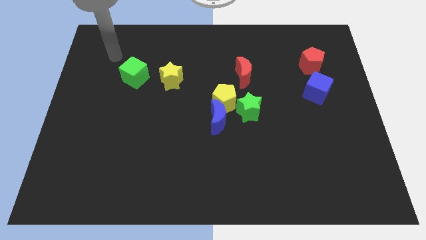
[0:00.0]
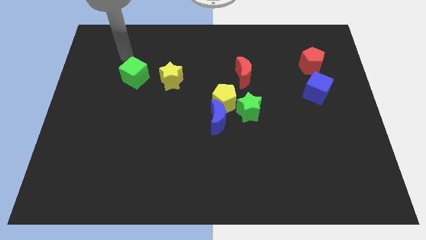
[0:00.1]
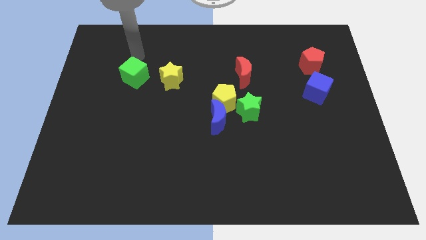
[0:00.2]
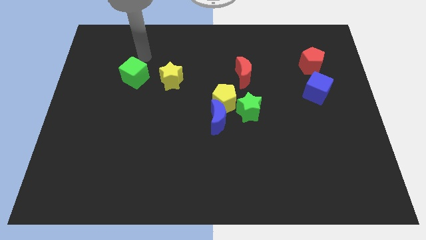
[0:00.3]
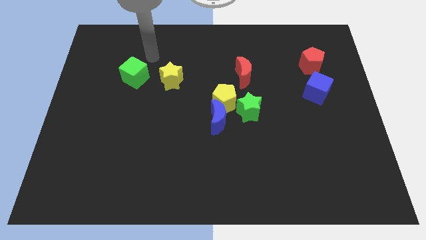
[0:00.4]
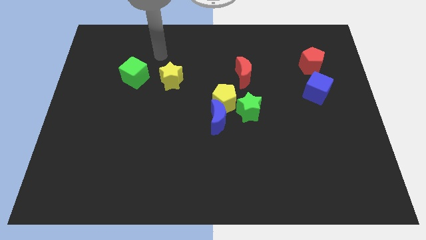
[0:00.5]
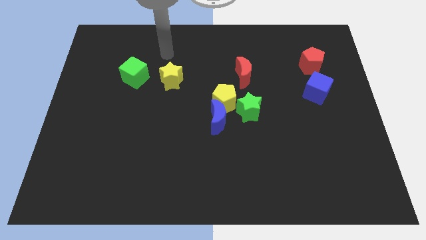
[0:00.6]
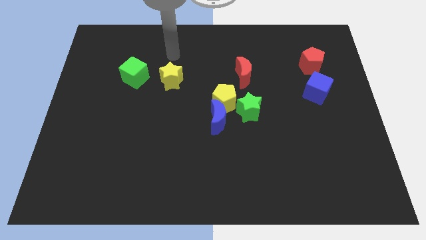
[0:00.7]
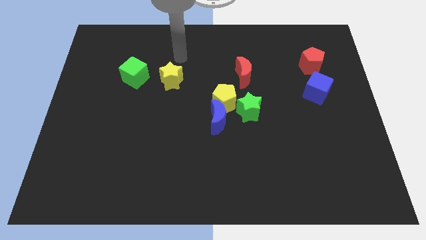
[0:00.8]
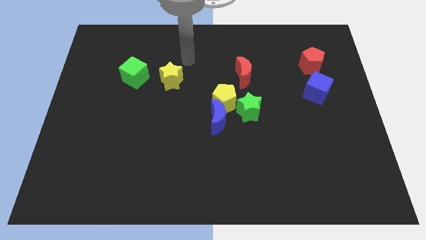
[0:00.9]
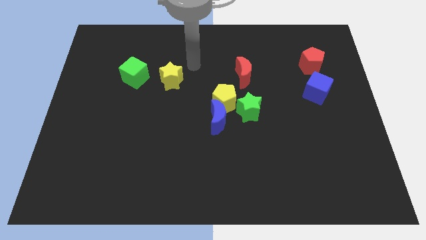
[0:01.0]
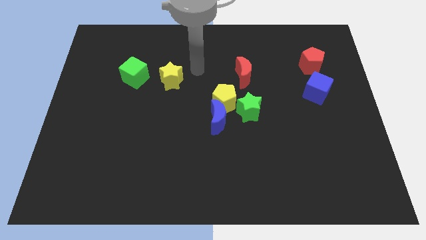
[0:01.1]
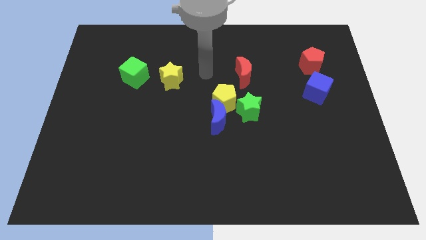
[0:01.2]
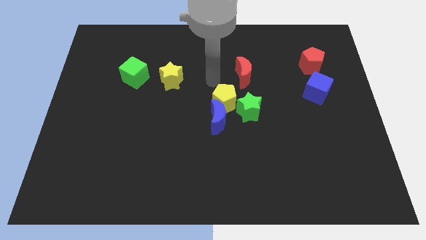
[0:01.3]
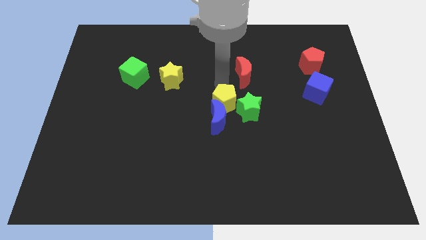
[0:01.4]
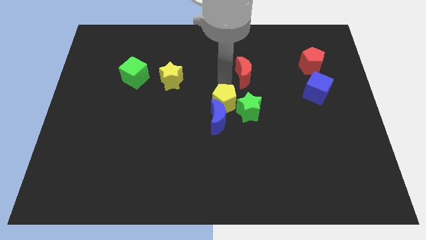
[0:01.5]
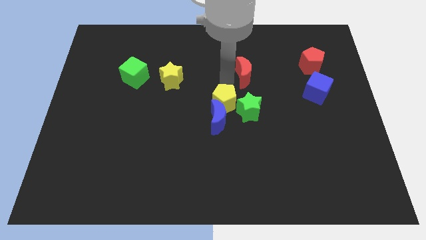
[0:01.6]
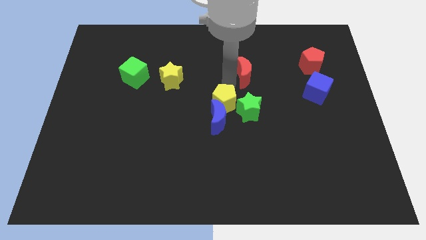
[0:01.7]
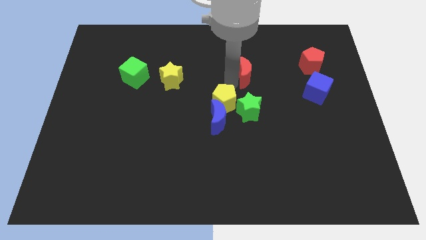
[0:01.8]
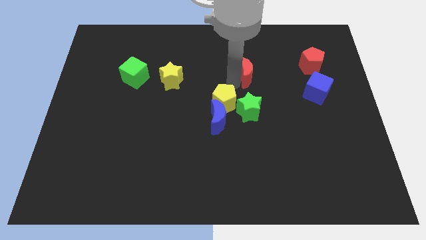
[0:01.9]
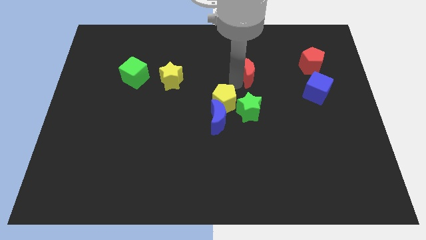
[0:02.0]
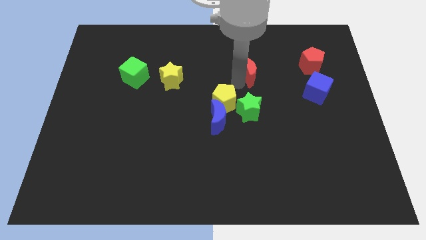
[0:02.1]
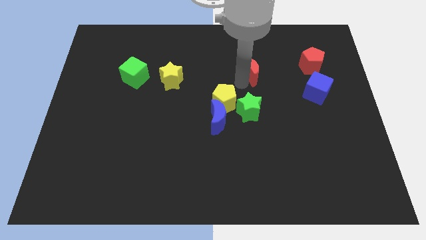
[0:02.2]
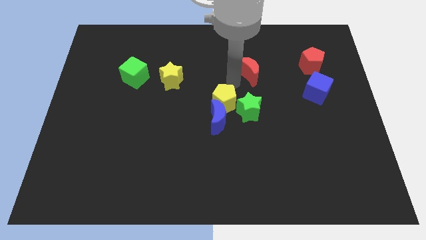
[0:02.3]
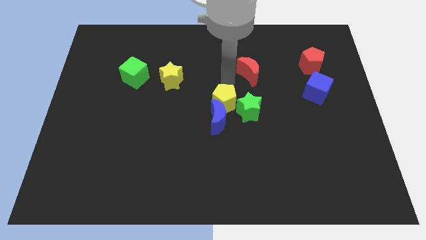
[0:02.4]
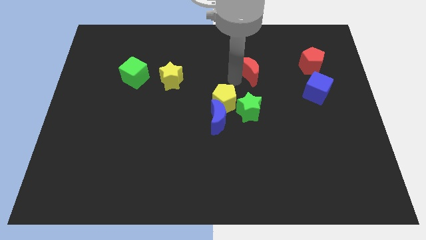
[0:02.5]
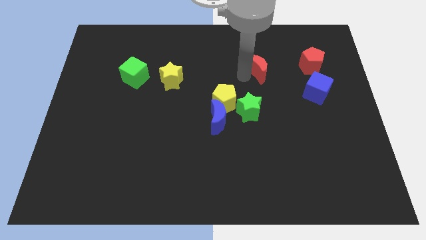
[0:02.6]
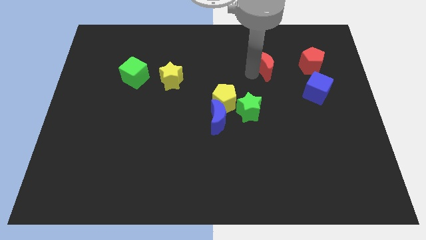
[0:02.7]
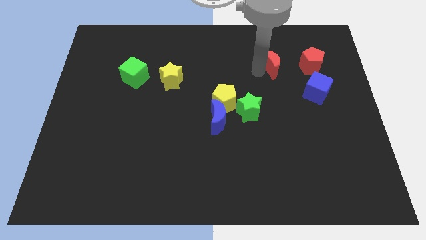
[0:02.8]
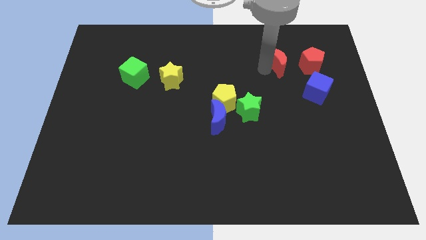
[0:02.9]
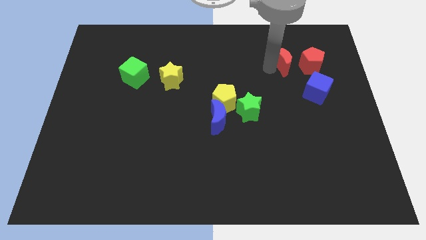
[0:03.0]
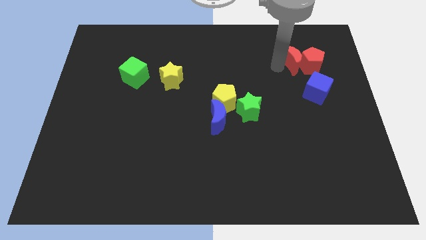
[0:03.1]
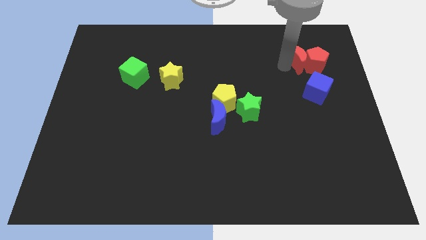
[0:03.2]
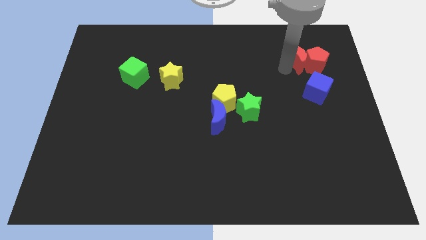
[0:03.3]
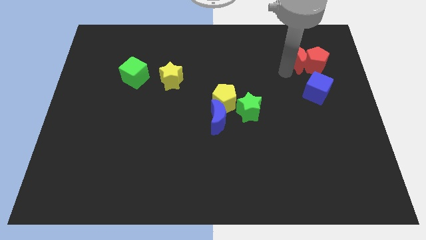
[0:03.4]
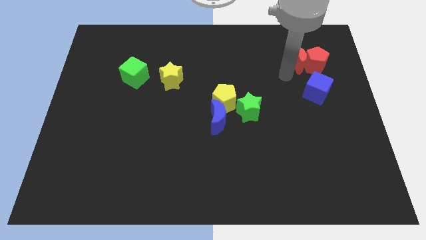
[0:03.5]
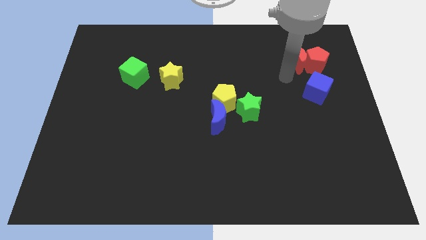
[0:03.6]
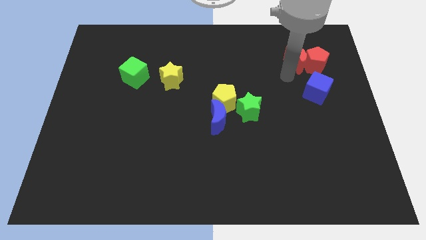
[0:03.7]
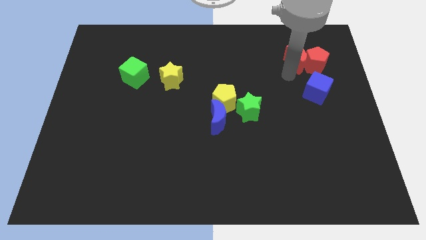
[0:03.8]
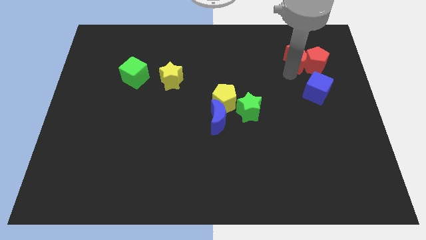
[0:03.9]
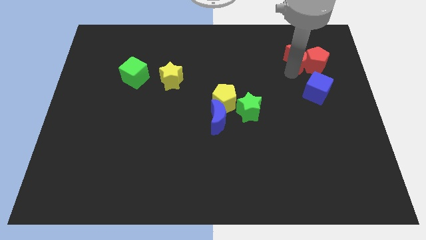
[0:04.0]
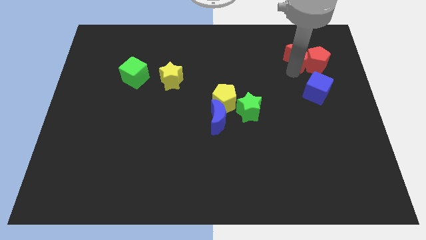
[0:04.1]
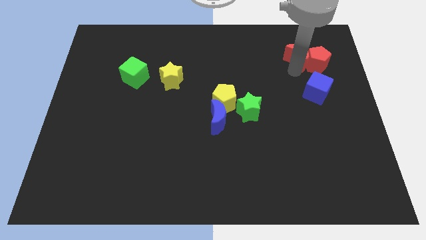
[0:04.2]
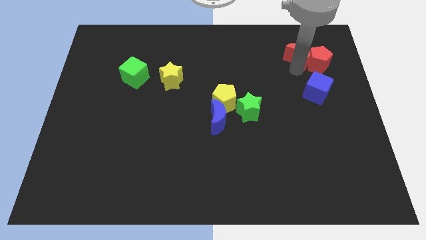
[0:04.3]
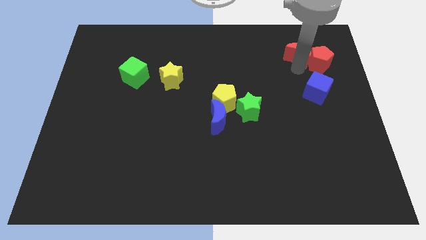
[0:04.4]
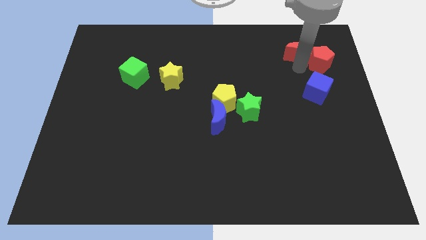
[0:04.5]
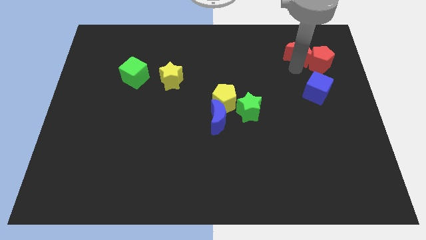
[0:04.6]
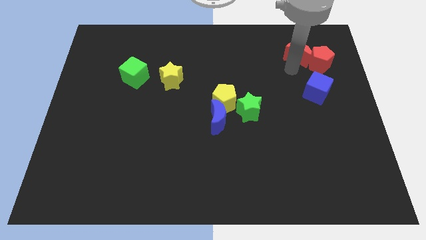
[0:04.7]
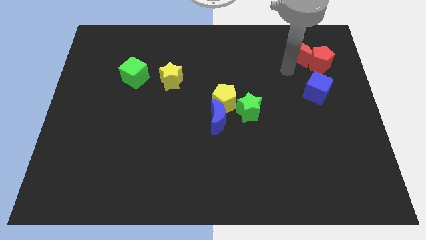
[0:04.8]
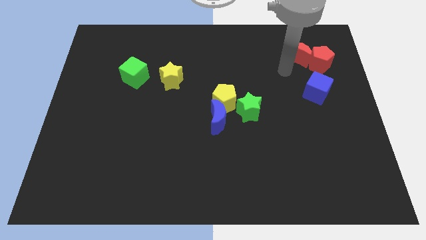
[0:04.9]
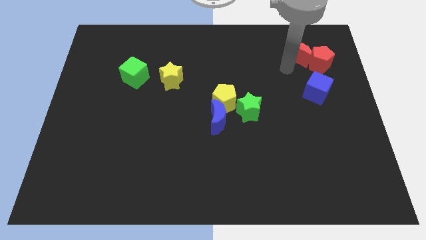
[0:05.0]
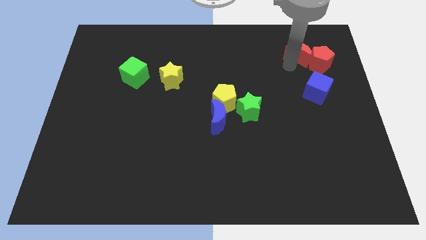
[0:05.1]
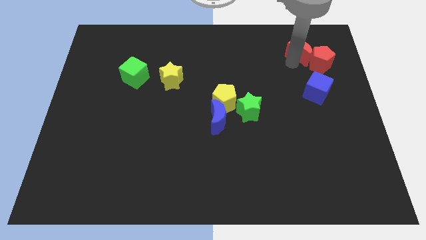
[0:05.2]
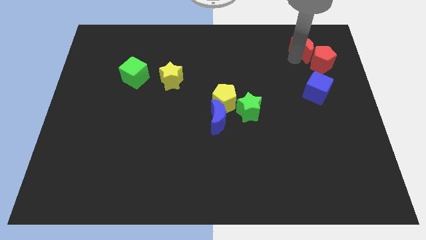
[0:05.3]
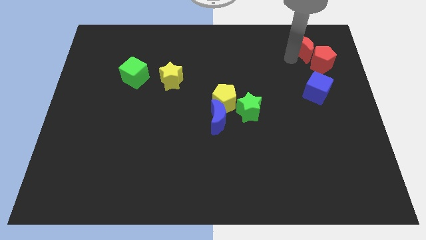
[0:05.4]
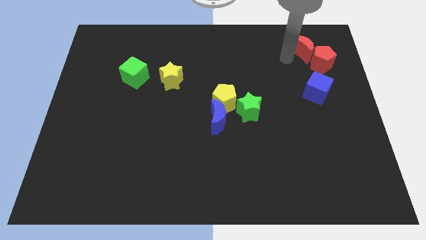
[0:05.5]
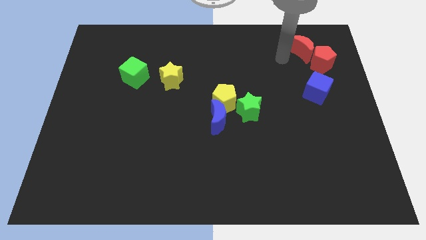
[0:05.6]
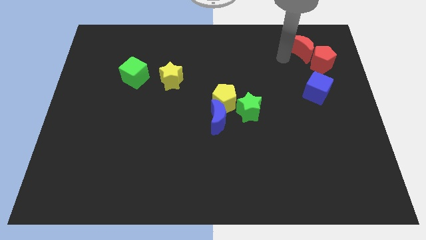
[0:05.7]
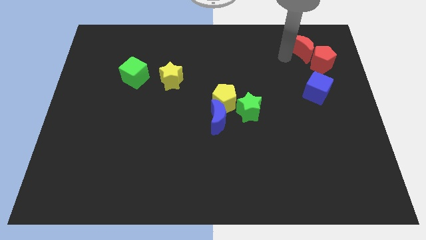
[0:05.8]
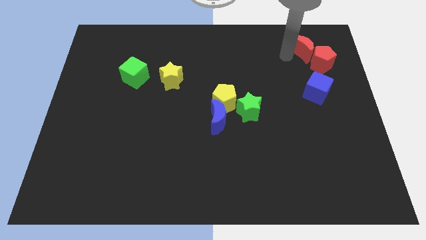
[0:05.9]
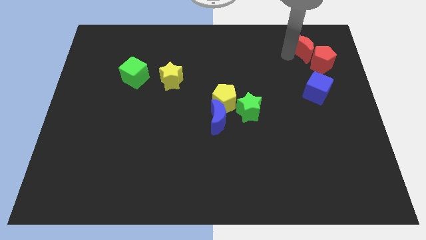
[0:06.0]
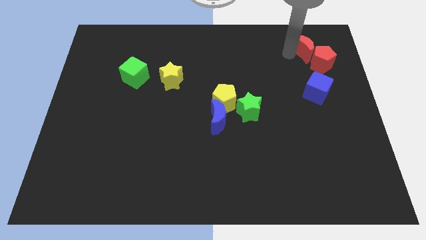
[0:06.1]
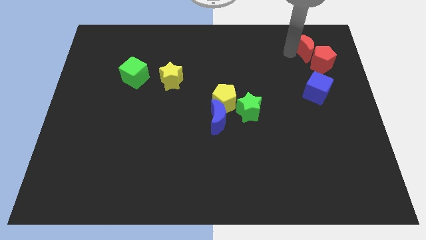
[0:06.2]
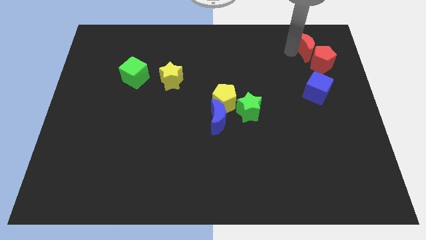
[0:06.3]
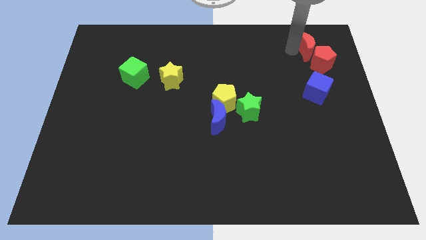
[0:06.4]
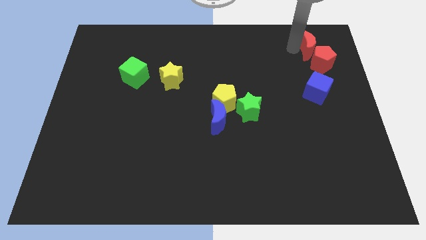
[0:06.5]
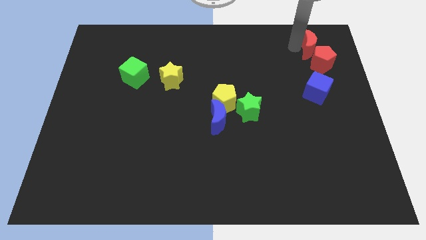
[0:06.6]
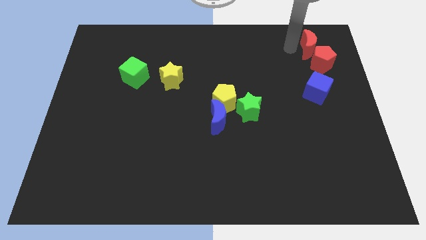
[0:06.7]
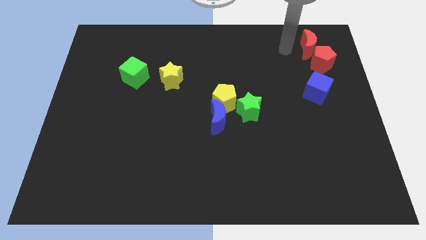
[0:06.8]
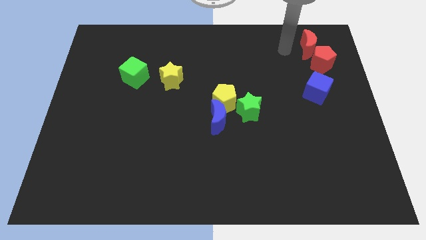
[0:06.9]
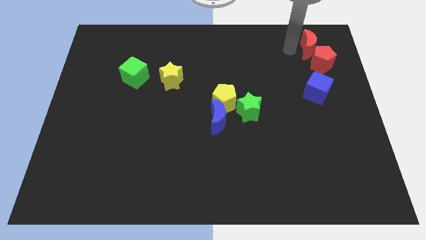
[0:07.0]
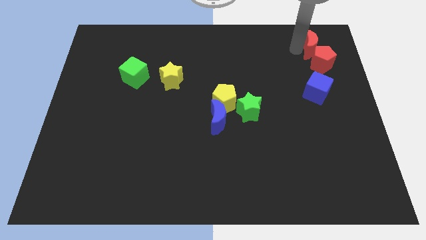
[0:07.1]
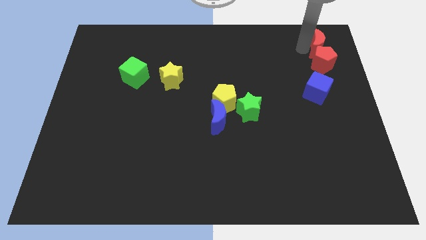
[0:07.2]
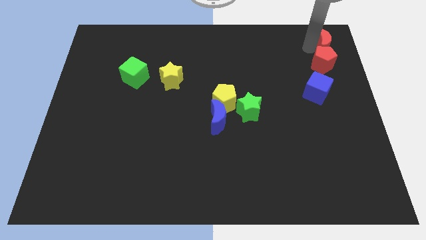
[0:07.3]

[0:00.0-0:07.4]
push the red moon to the upper right corner
